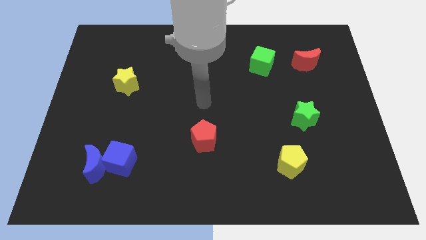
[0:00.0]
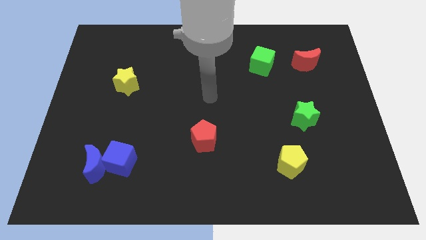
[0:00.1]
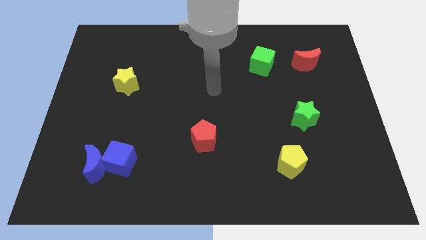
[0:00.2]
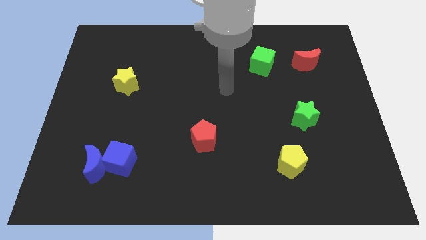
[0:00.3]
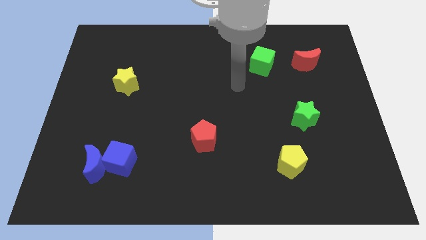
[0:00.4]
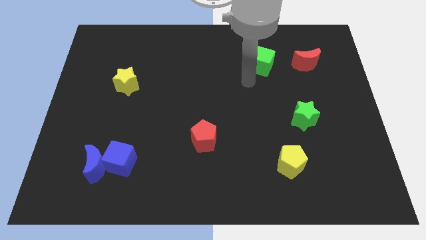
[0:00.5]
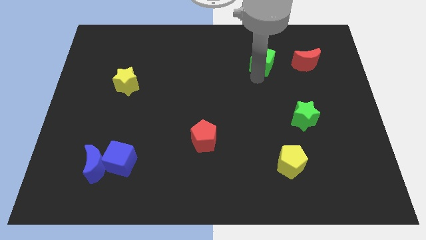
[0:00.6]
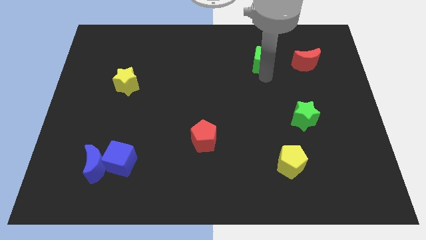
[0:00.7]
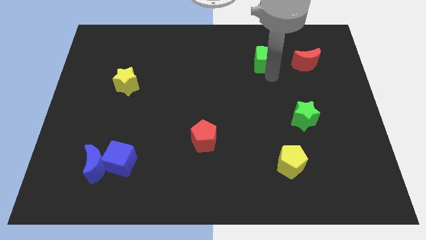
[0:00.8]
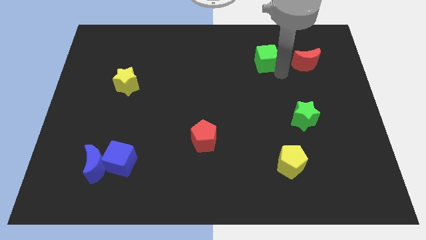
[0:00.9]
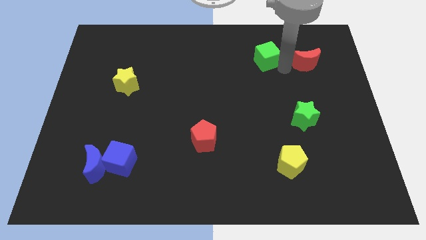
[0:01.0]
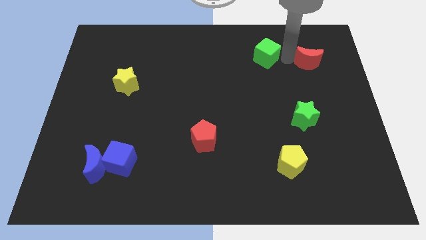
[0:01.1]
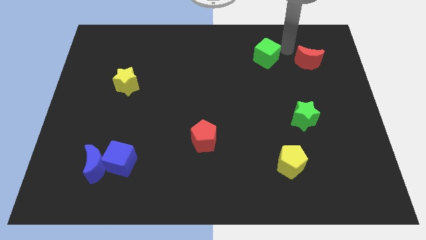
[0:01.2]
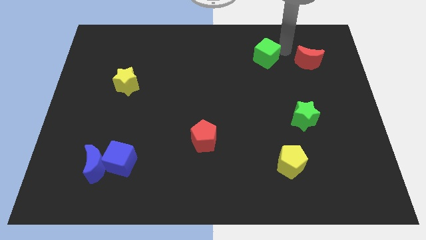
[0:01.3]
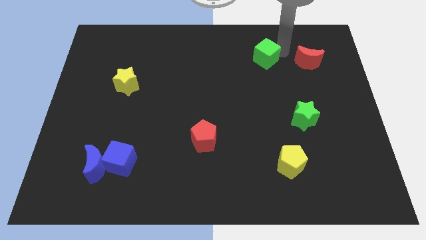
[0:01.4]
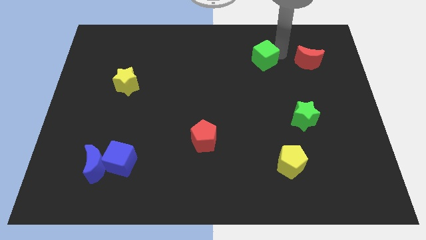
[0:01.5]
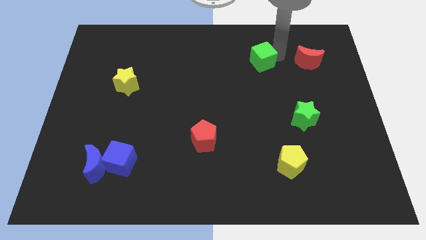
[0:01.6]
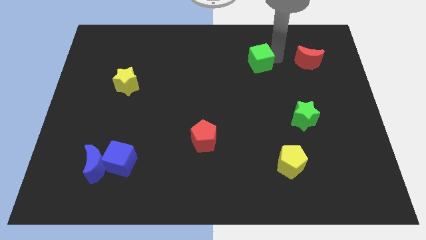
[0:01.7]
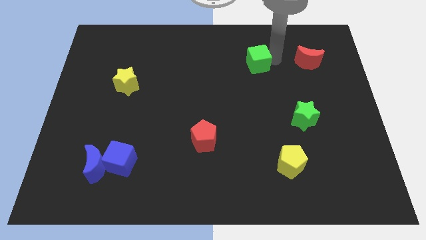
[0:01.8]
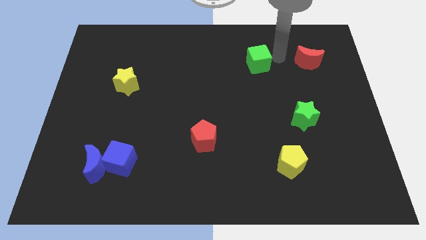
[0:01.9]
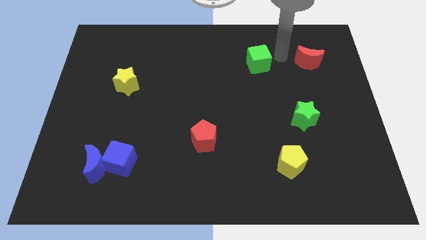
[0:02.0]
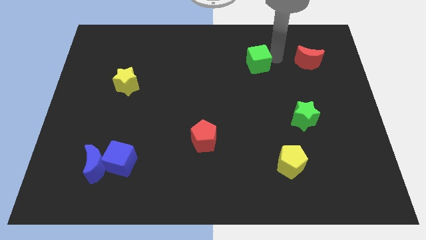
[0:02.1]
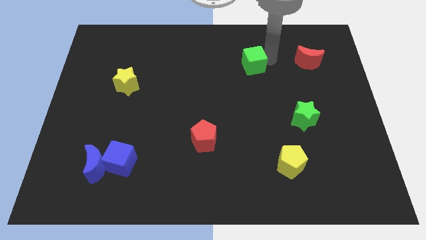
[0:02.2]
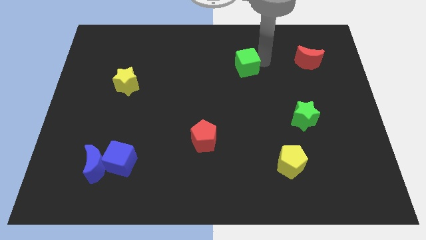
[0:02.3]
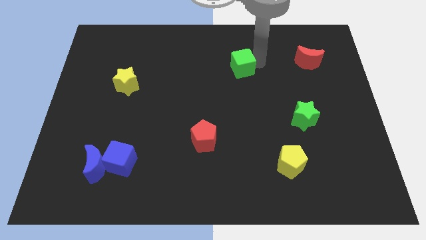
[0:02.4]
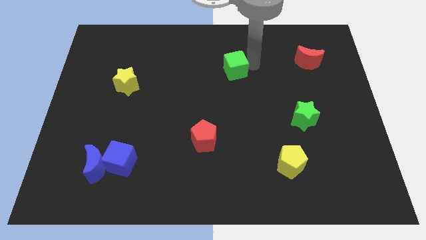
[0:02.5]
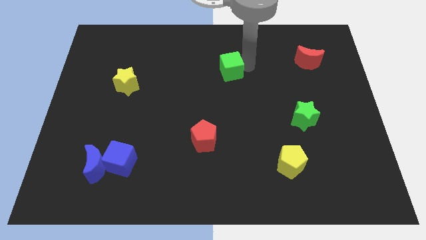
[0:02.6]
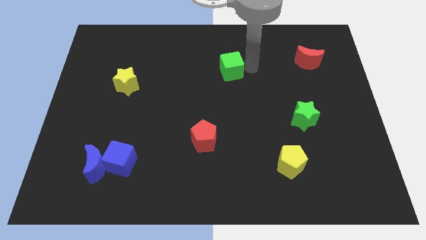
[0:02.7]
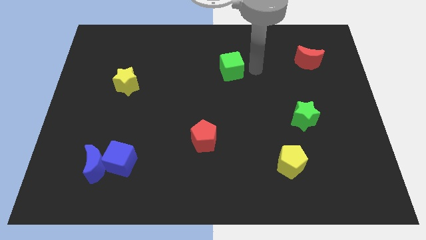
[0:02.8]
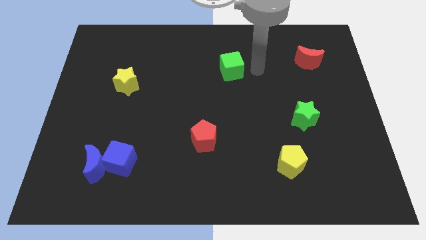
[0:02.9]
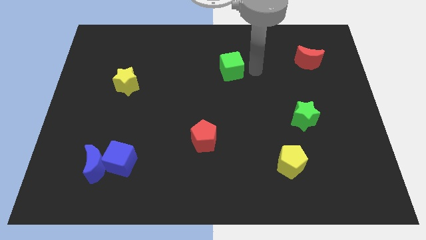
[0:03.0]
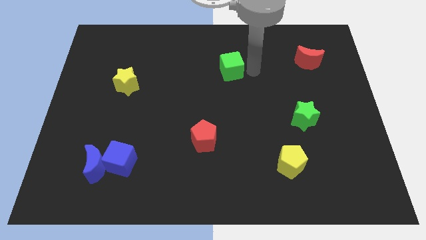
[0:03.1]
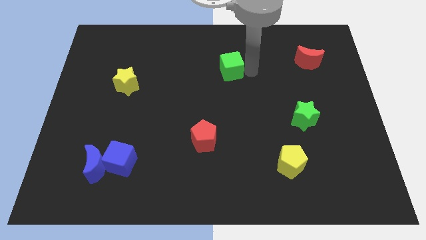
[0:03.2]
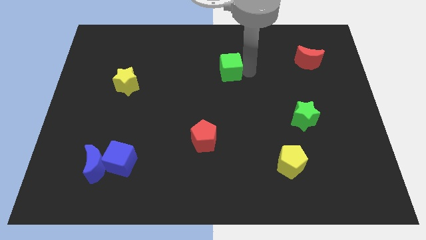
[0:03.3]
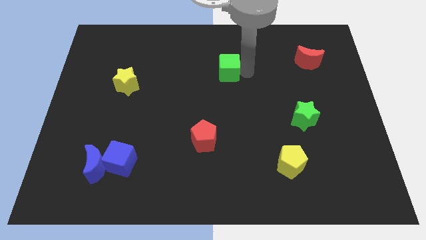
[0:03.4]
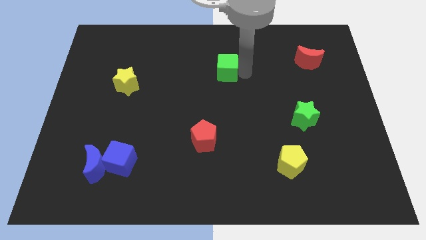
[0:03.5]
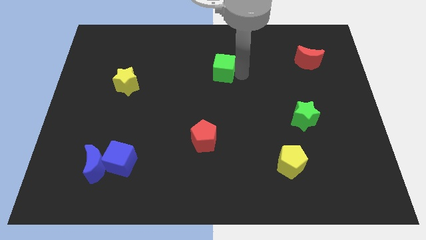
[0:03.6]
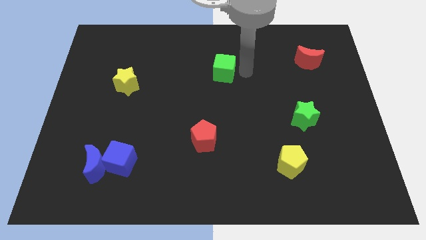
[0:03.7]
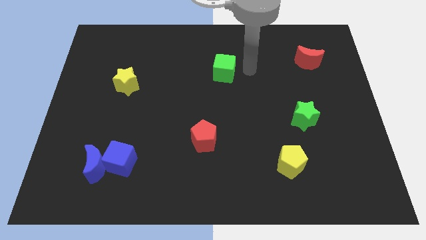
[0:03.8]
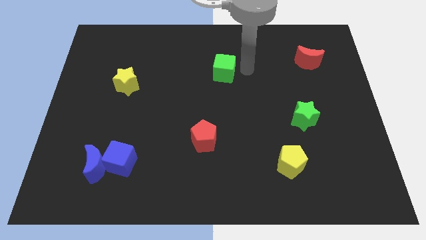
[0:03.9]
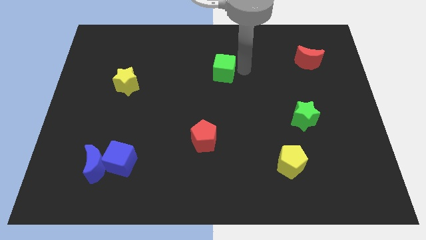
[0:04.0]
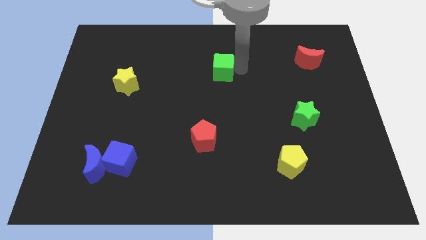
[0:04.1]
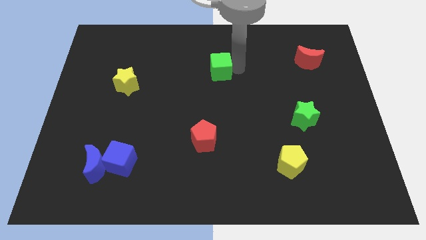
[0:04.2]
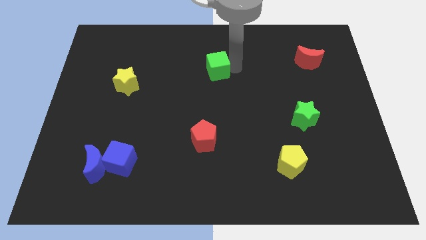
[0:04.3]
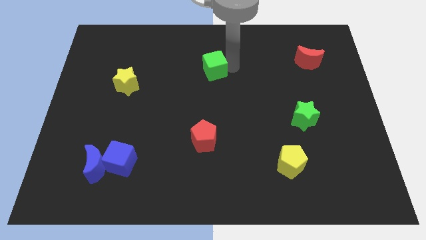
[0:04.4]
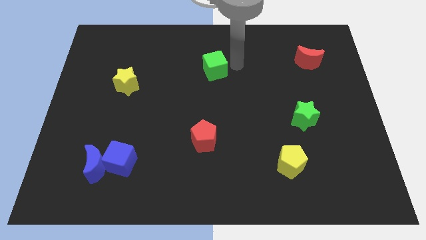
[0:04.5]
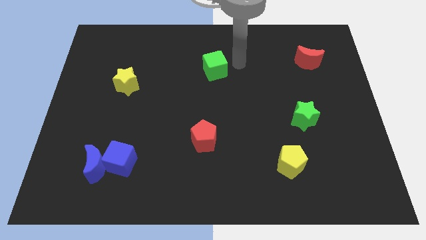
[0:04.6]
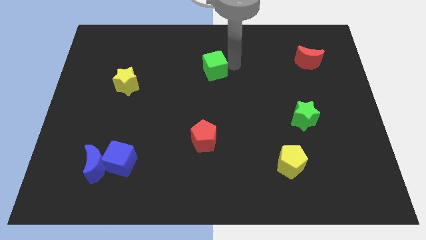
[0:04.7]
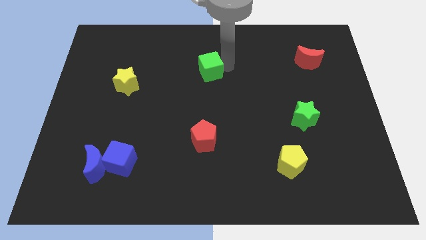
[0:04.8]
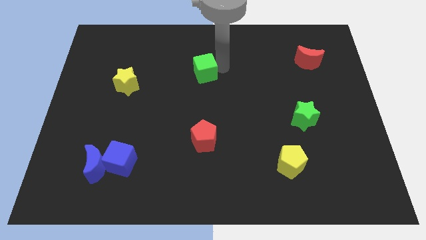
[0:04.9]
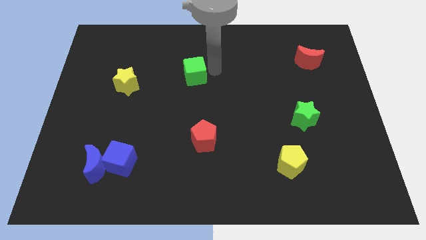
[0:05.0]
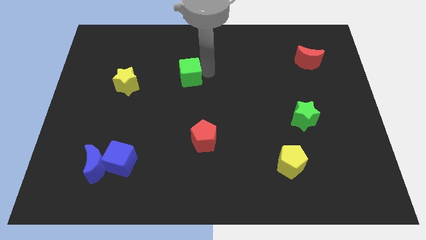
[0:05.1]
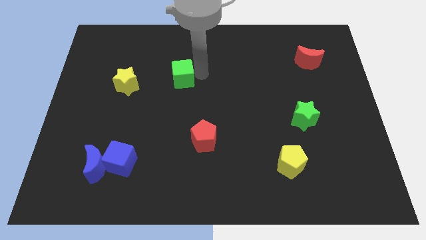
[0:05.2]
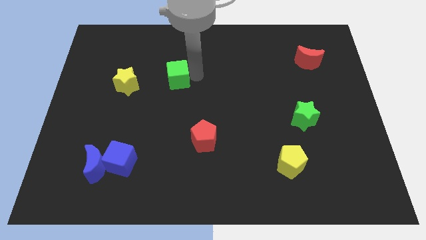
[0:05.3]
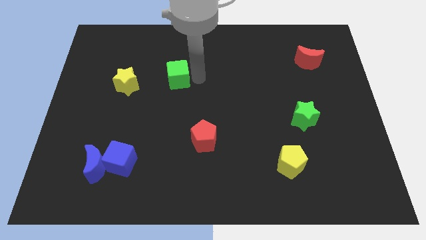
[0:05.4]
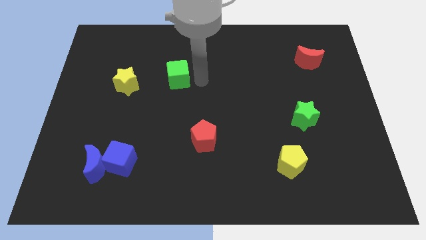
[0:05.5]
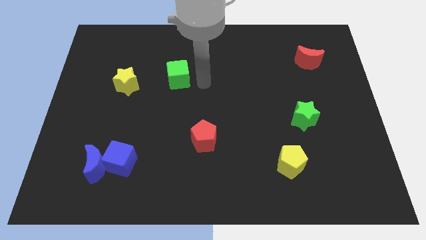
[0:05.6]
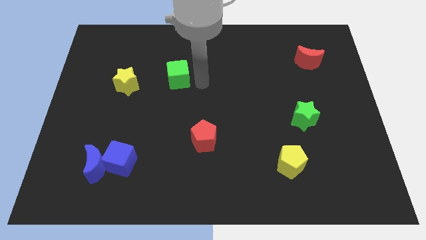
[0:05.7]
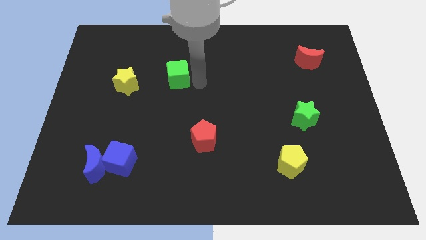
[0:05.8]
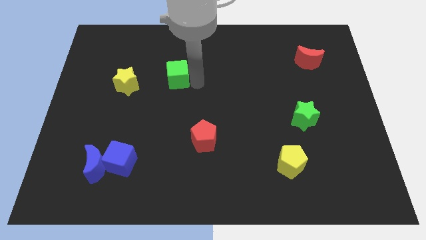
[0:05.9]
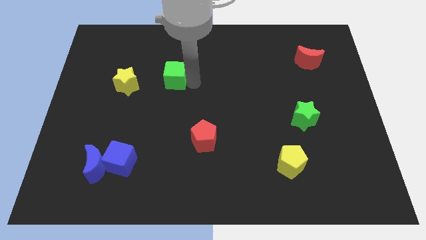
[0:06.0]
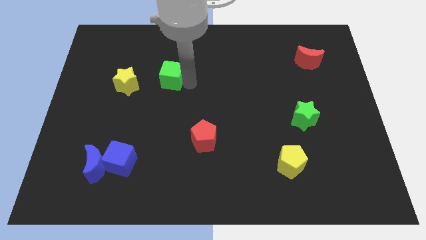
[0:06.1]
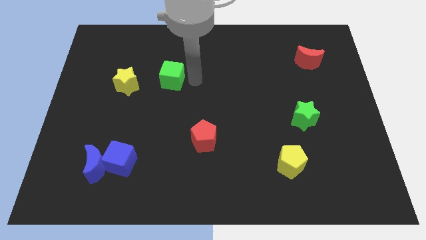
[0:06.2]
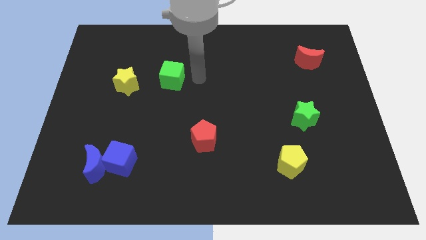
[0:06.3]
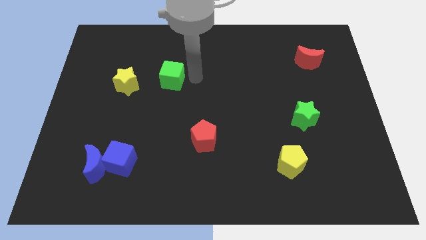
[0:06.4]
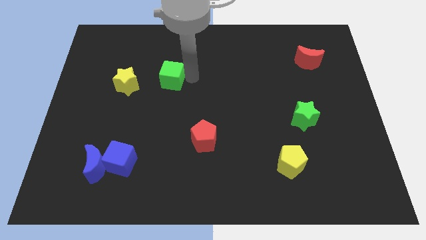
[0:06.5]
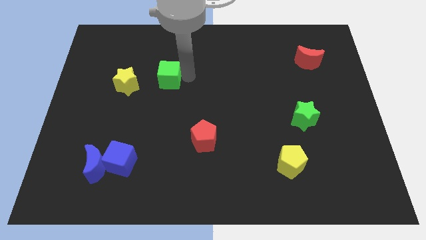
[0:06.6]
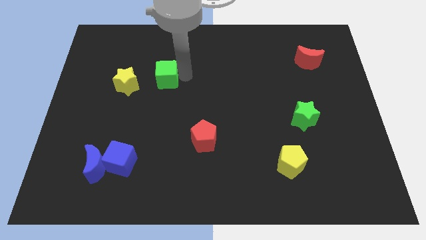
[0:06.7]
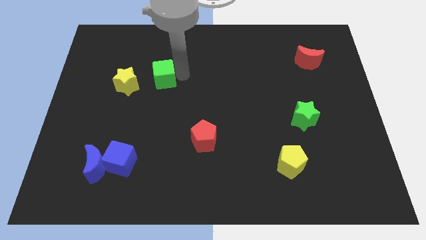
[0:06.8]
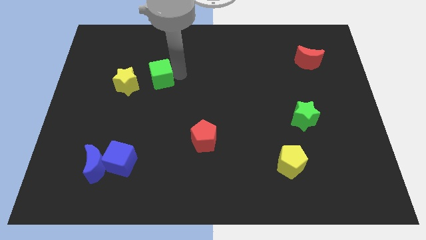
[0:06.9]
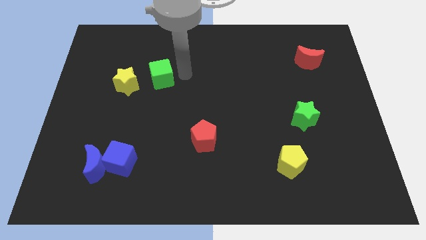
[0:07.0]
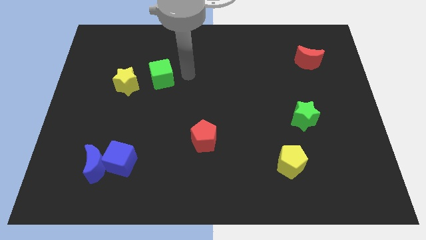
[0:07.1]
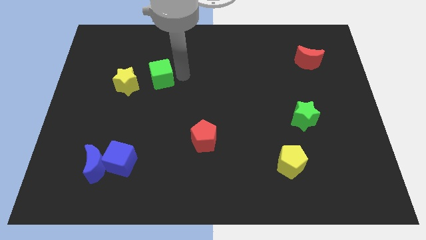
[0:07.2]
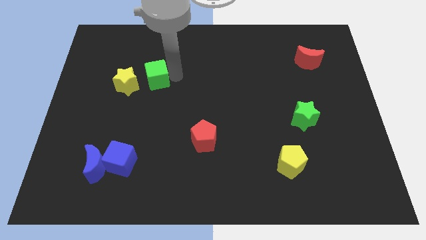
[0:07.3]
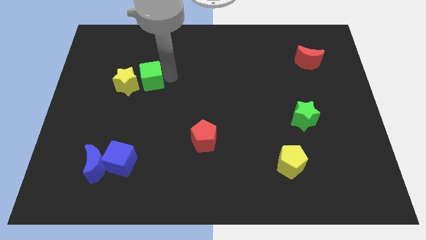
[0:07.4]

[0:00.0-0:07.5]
slide the green cube close to the yellow star
